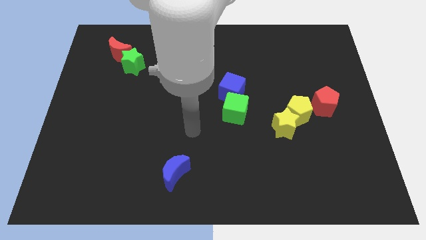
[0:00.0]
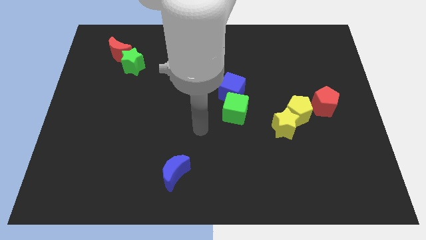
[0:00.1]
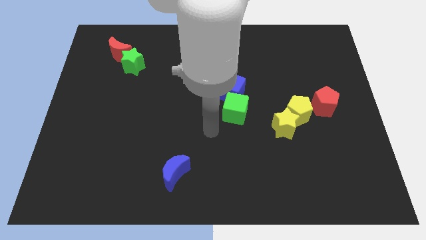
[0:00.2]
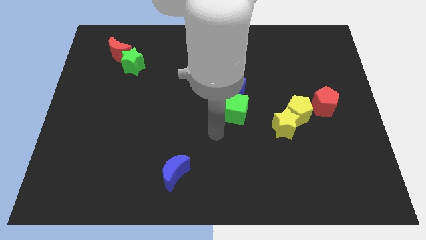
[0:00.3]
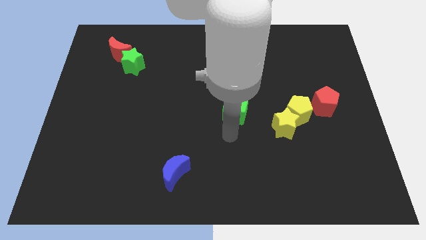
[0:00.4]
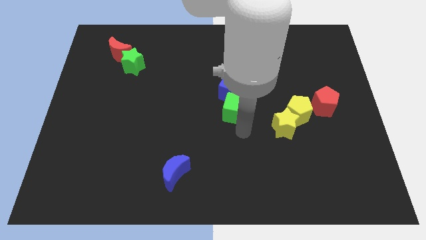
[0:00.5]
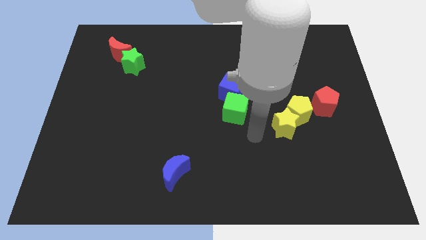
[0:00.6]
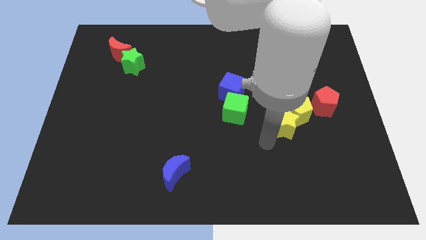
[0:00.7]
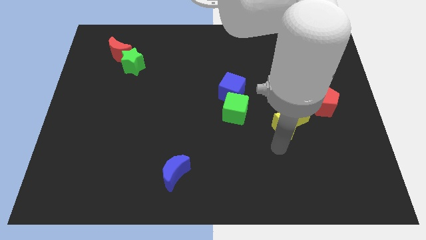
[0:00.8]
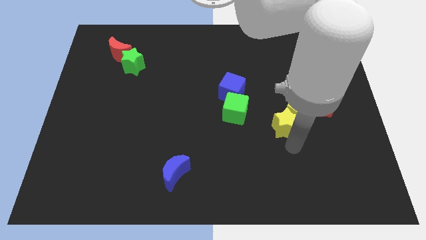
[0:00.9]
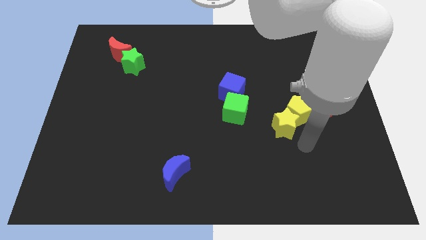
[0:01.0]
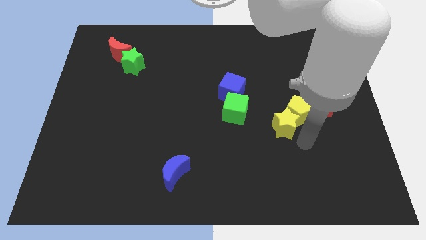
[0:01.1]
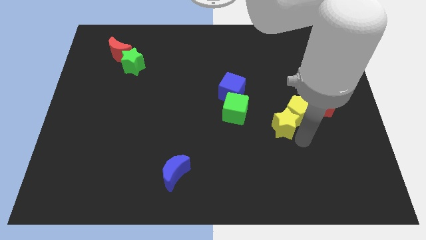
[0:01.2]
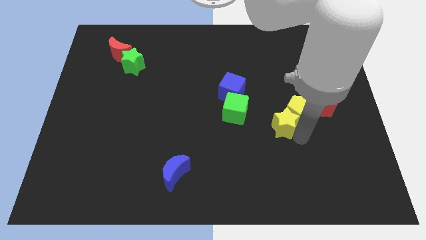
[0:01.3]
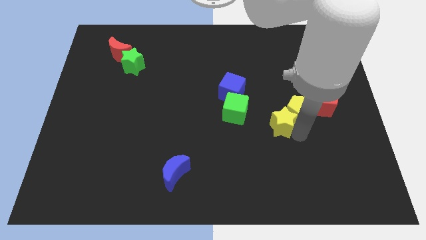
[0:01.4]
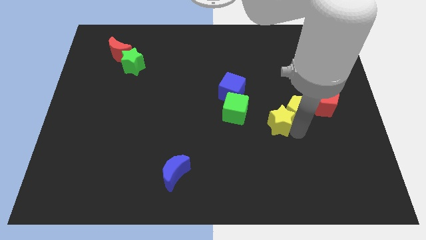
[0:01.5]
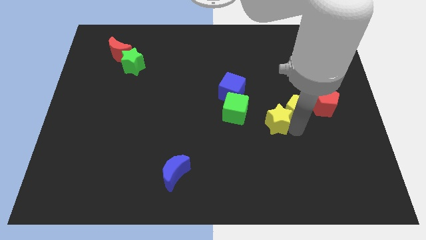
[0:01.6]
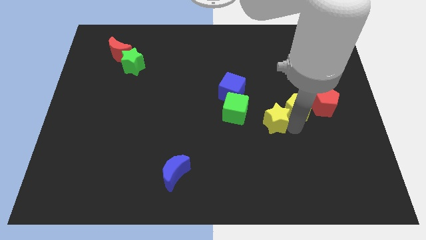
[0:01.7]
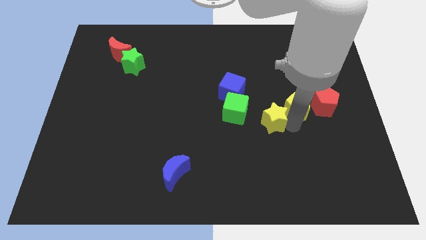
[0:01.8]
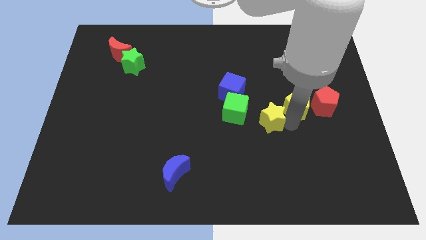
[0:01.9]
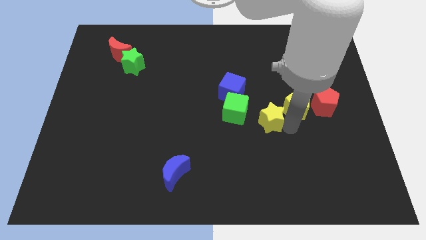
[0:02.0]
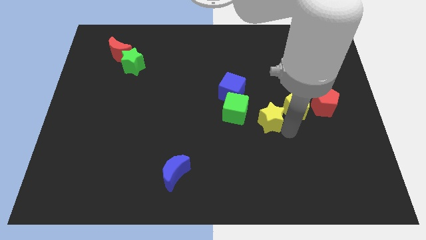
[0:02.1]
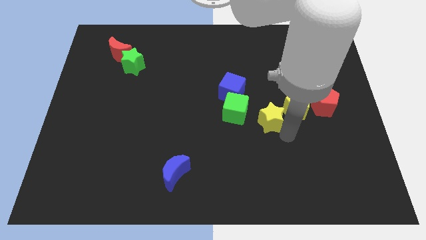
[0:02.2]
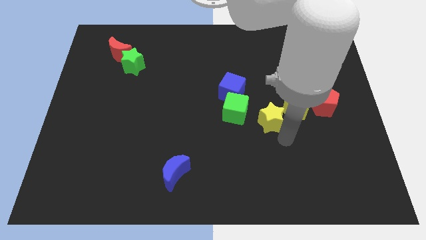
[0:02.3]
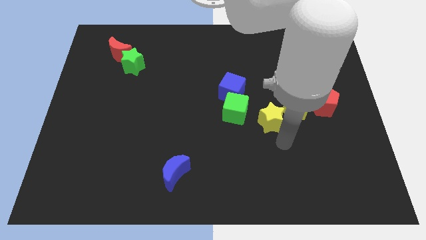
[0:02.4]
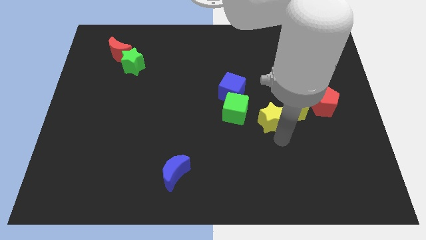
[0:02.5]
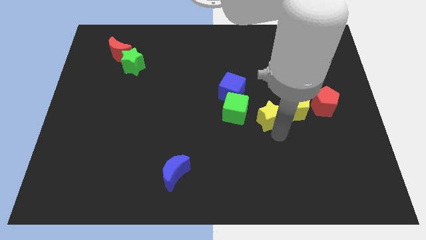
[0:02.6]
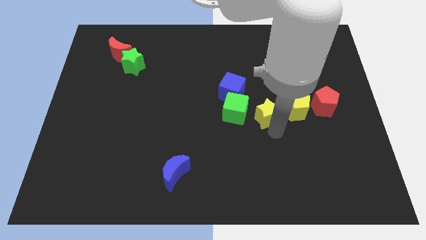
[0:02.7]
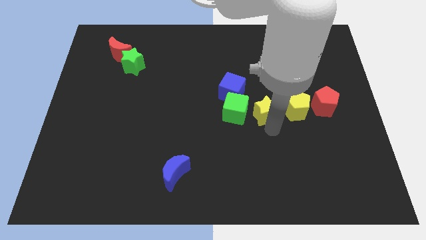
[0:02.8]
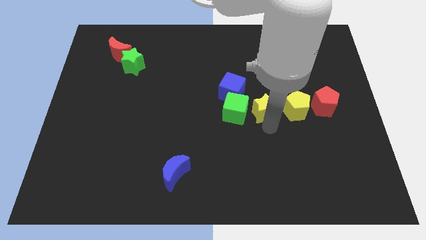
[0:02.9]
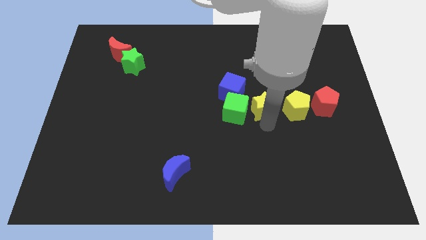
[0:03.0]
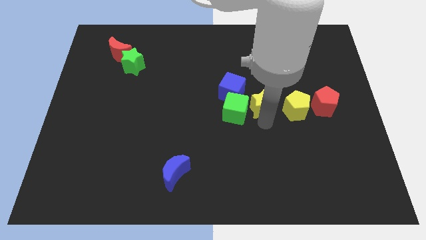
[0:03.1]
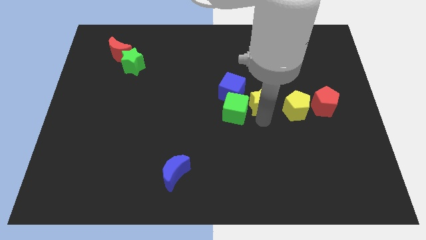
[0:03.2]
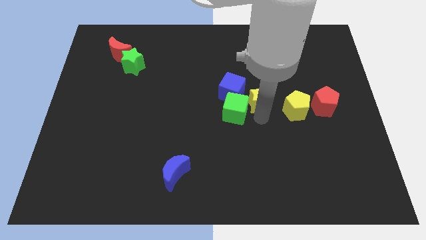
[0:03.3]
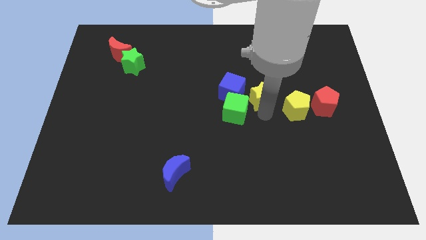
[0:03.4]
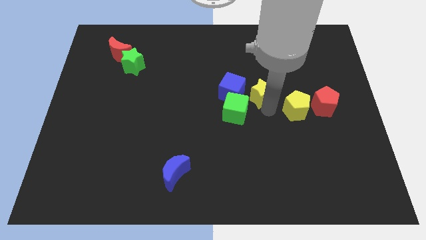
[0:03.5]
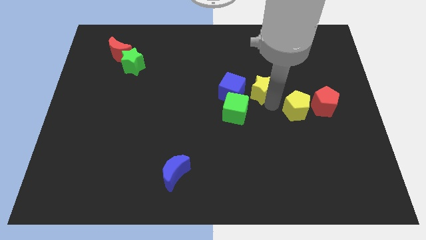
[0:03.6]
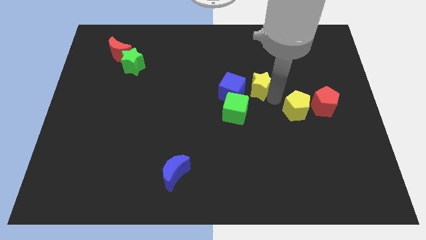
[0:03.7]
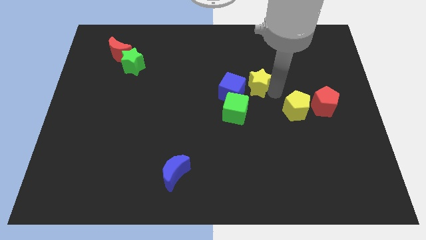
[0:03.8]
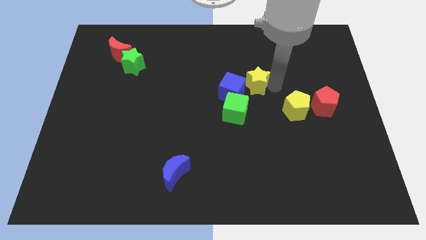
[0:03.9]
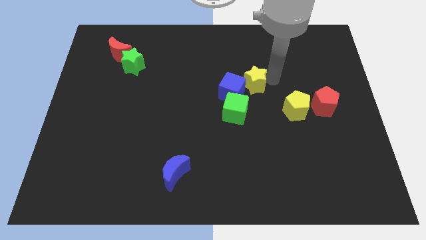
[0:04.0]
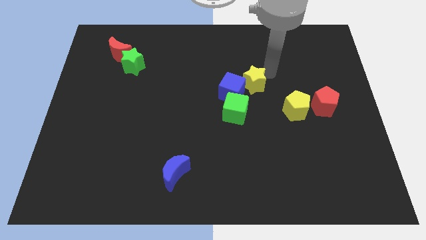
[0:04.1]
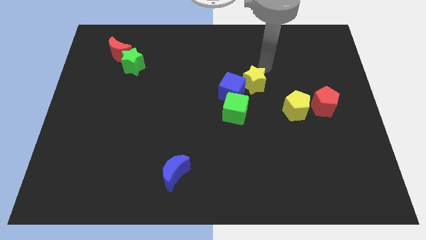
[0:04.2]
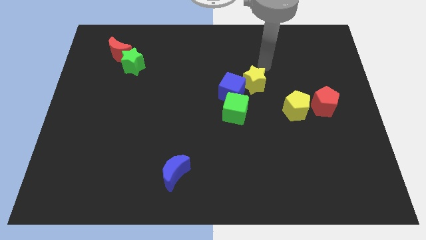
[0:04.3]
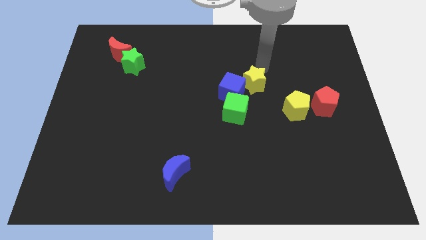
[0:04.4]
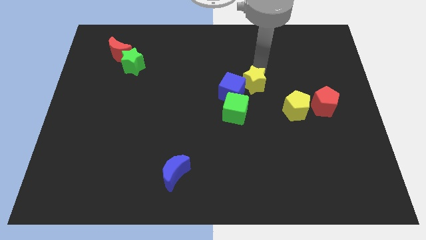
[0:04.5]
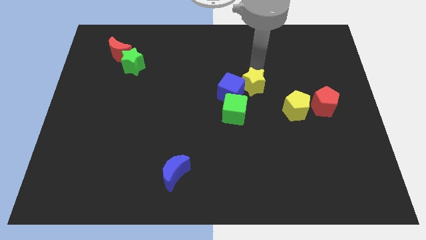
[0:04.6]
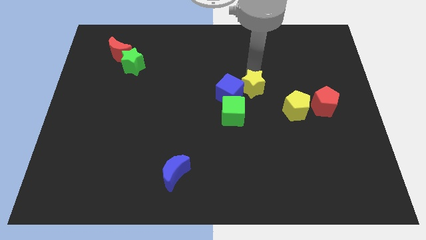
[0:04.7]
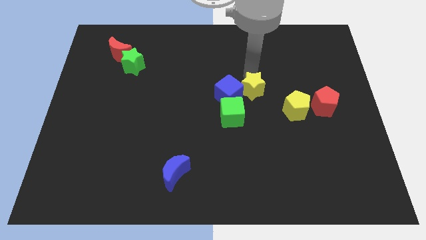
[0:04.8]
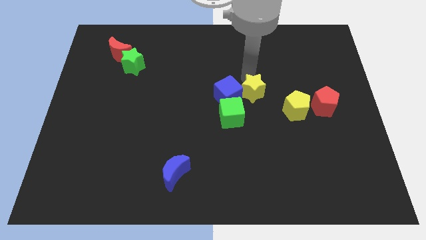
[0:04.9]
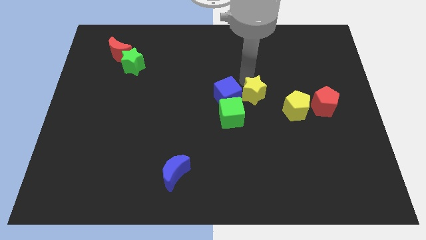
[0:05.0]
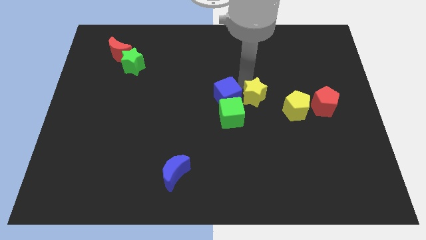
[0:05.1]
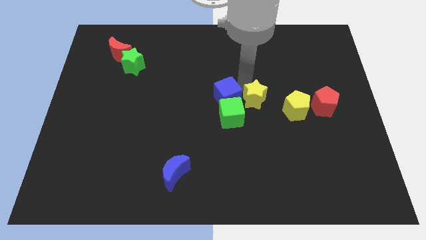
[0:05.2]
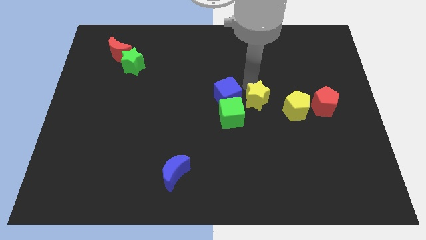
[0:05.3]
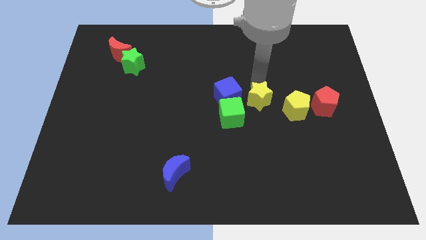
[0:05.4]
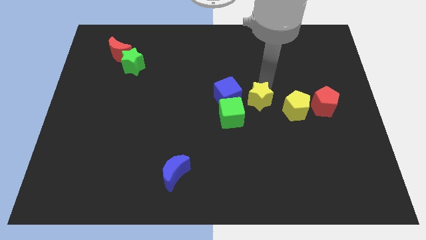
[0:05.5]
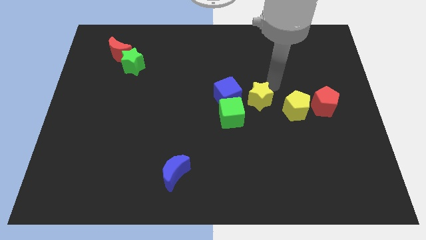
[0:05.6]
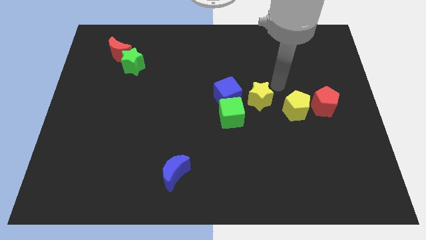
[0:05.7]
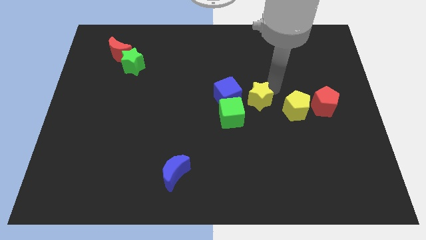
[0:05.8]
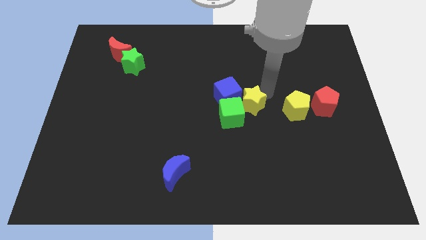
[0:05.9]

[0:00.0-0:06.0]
put the yellow star towards the green cube

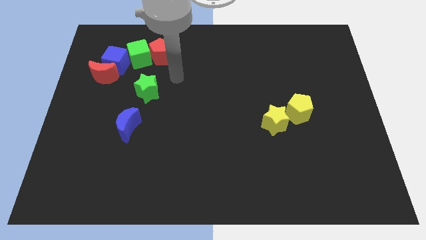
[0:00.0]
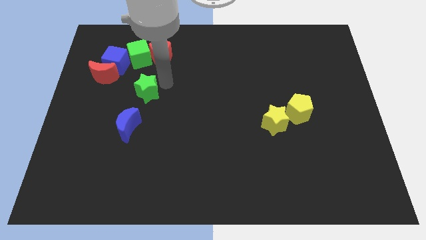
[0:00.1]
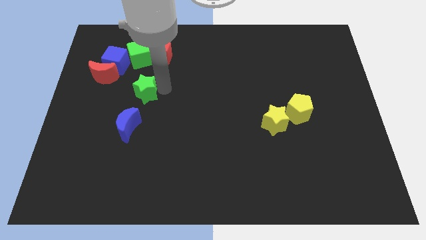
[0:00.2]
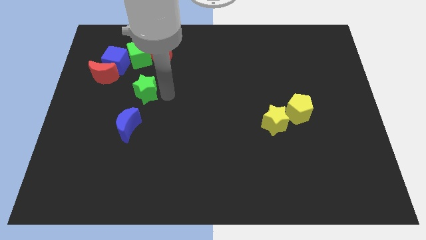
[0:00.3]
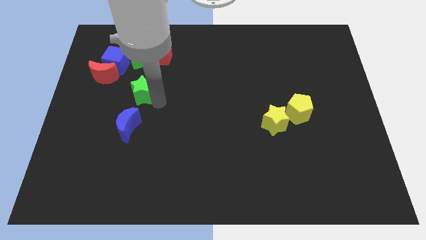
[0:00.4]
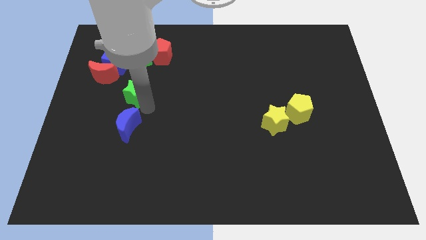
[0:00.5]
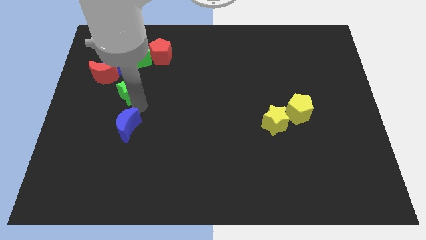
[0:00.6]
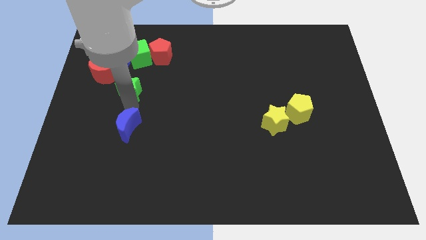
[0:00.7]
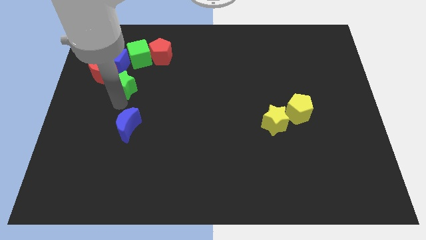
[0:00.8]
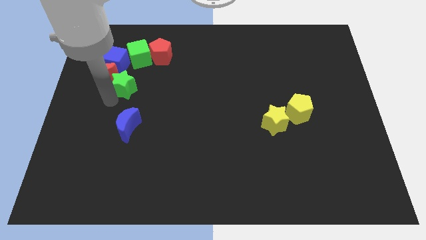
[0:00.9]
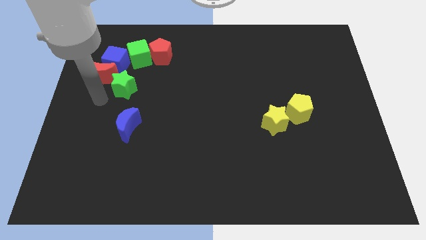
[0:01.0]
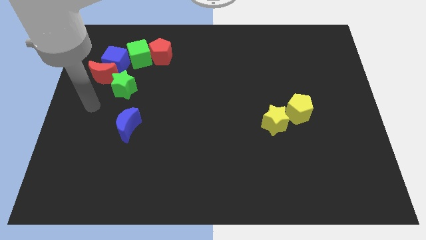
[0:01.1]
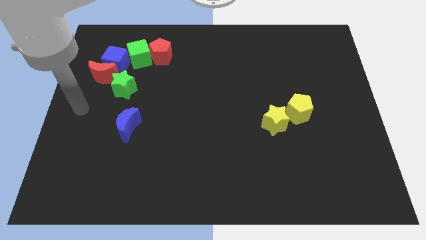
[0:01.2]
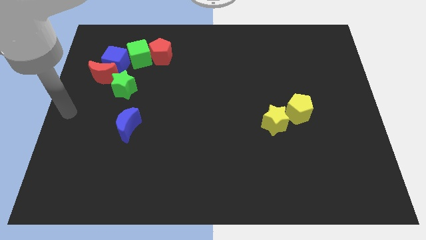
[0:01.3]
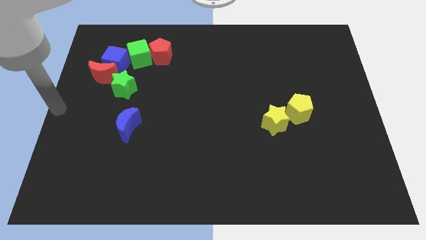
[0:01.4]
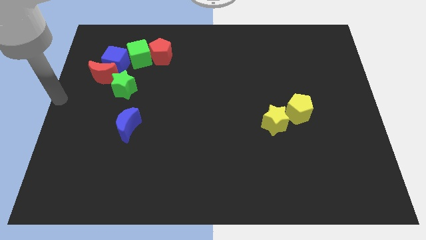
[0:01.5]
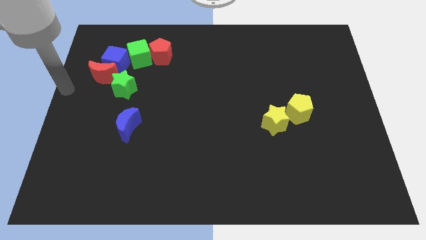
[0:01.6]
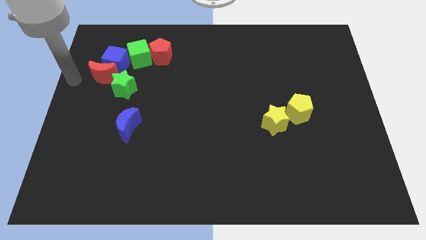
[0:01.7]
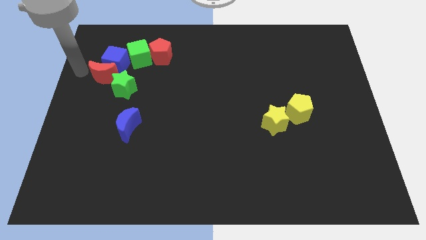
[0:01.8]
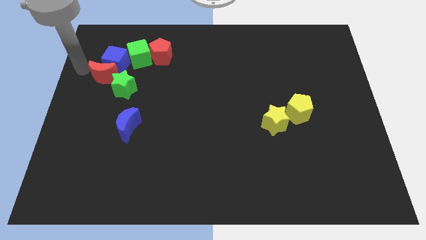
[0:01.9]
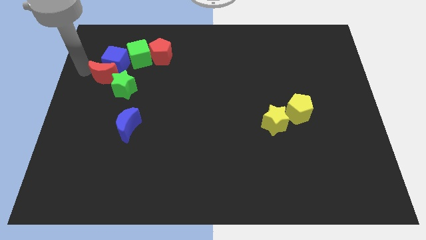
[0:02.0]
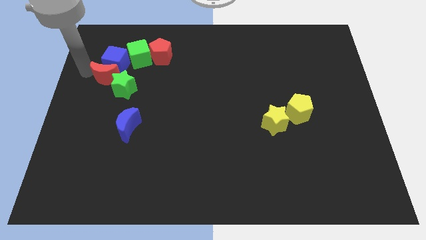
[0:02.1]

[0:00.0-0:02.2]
push the red moon next to the green star
